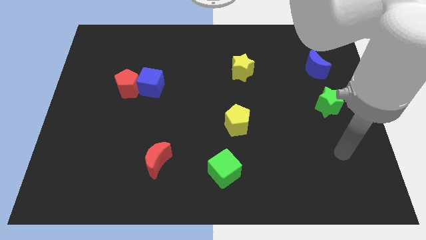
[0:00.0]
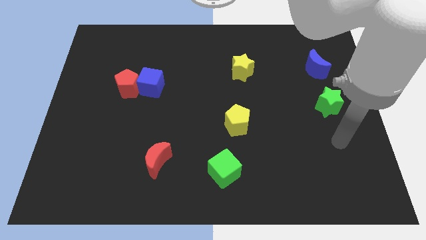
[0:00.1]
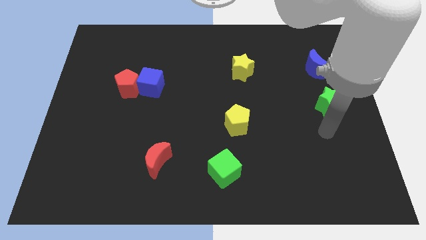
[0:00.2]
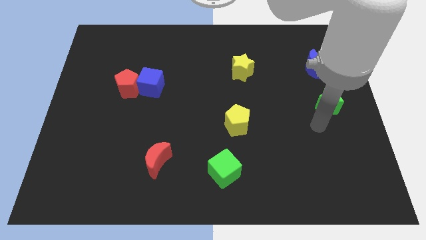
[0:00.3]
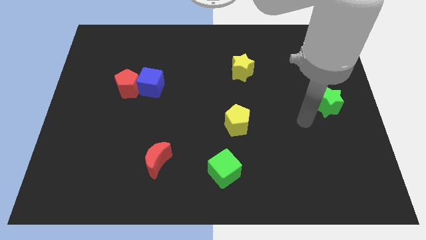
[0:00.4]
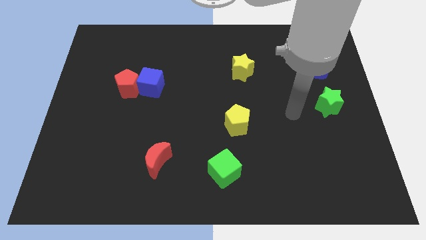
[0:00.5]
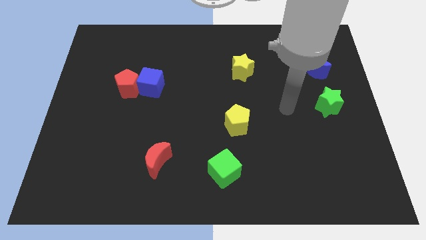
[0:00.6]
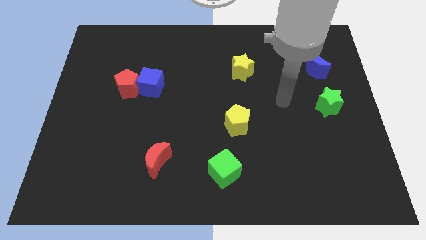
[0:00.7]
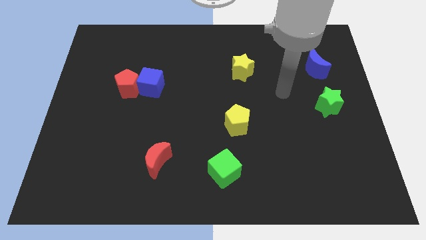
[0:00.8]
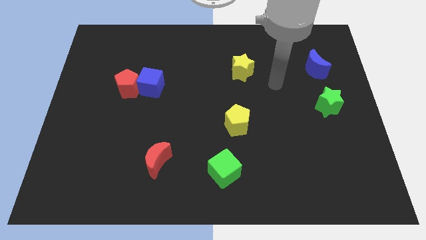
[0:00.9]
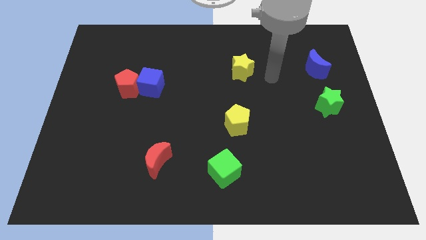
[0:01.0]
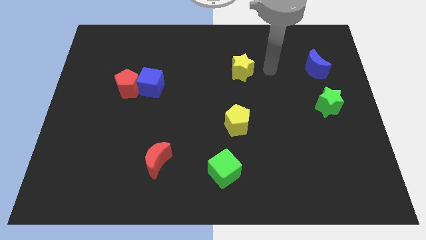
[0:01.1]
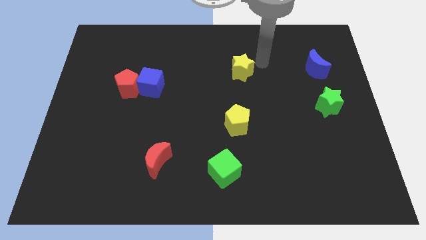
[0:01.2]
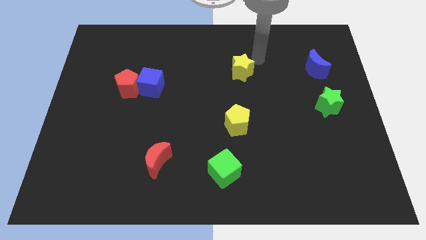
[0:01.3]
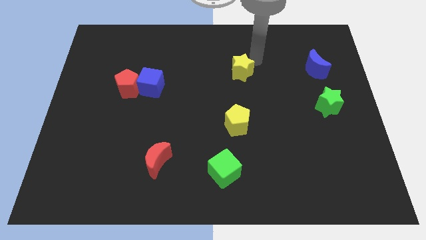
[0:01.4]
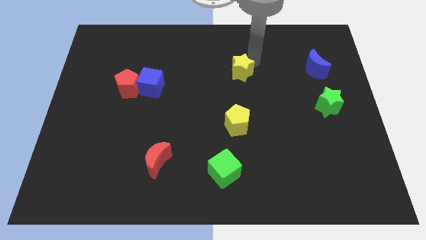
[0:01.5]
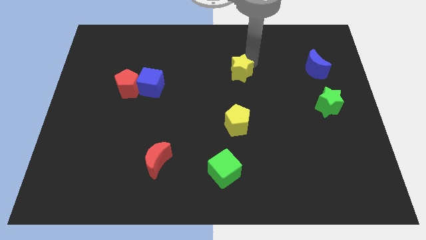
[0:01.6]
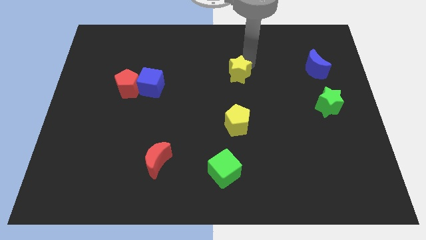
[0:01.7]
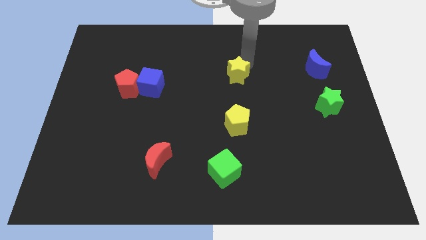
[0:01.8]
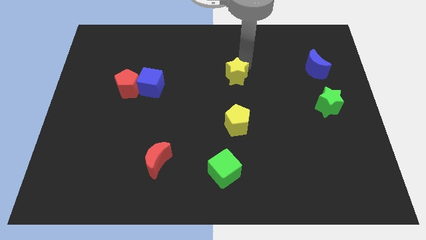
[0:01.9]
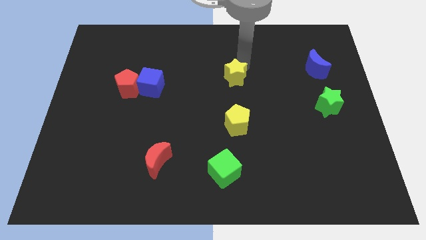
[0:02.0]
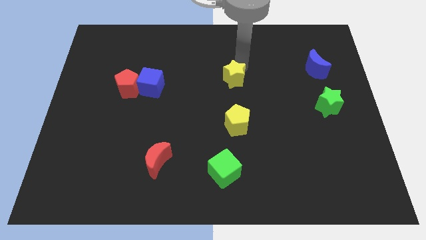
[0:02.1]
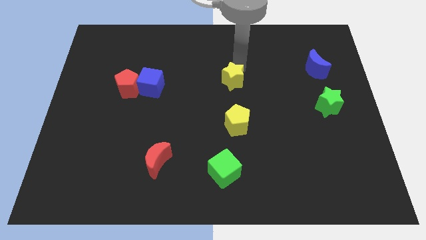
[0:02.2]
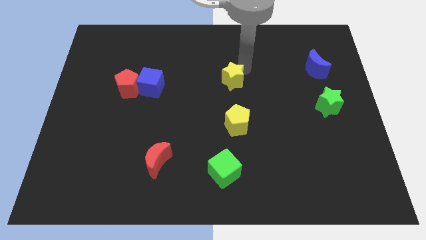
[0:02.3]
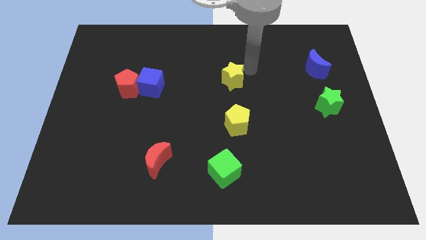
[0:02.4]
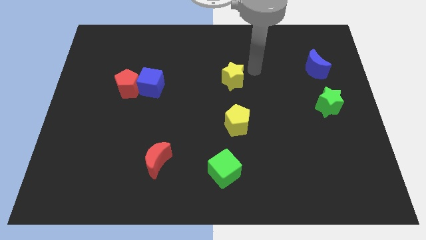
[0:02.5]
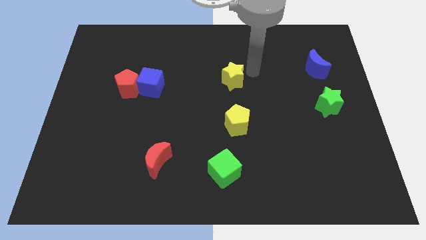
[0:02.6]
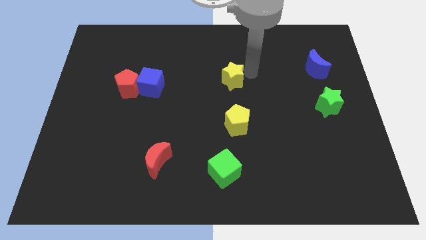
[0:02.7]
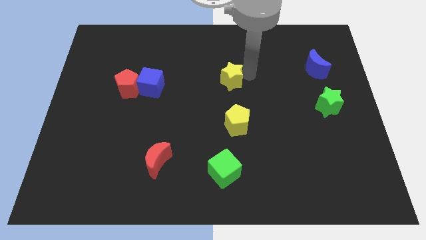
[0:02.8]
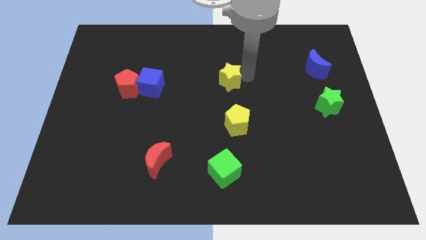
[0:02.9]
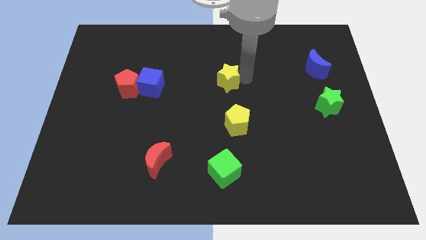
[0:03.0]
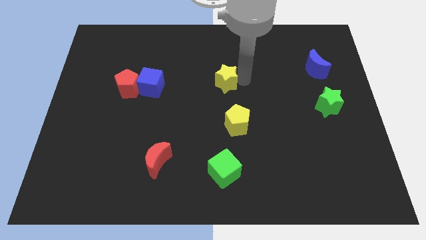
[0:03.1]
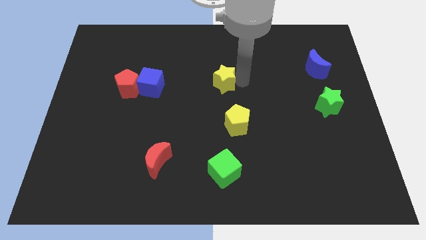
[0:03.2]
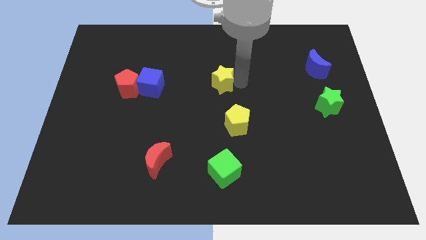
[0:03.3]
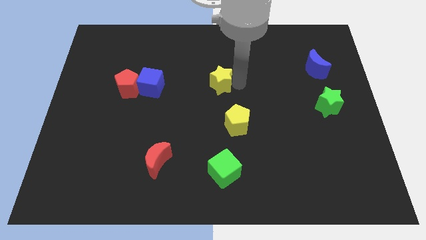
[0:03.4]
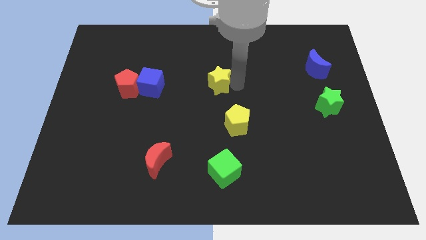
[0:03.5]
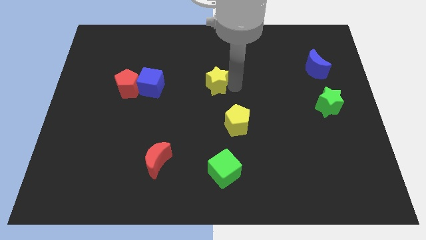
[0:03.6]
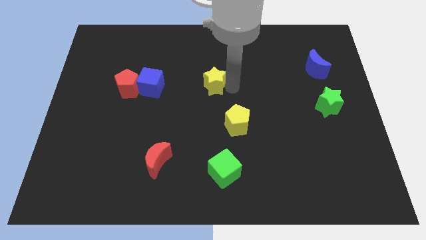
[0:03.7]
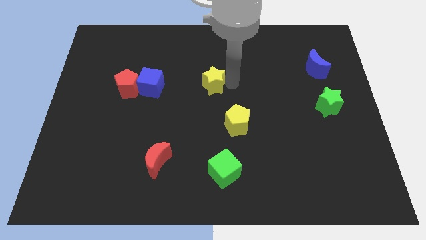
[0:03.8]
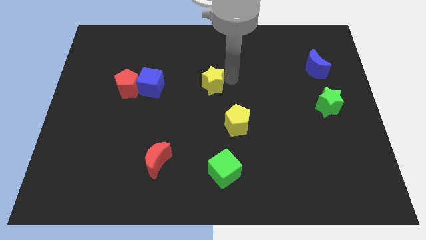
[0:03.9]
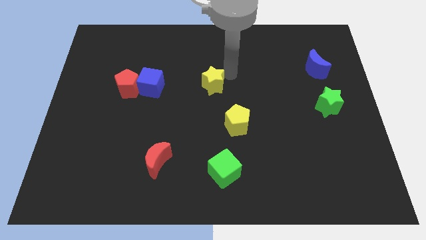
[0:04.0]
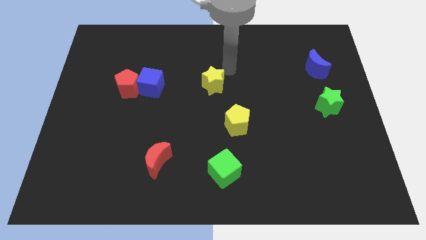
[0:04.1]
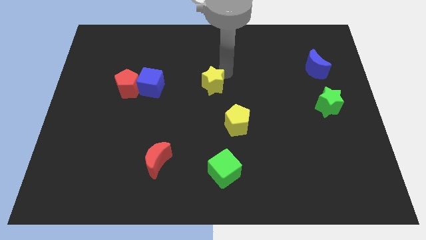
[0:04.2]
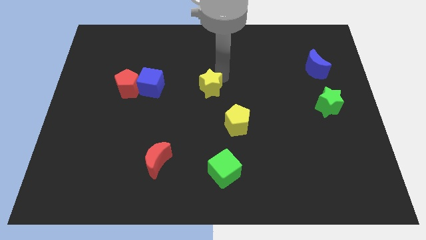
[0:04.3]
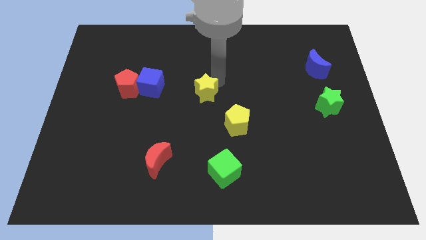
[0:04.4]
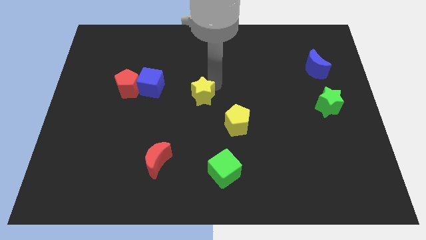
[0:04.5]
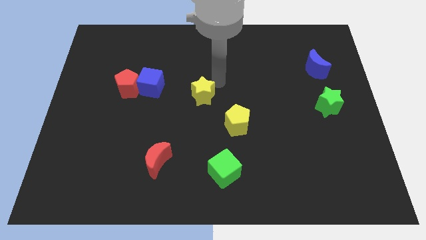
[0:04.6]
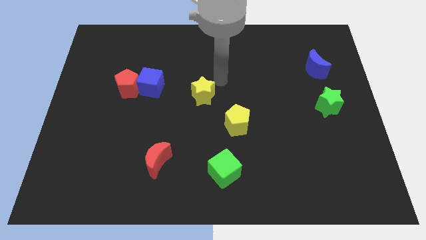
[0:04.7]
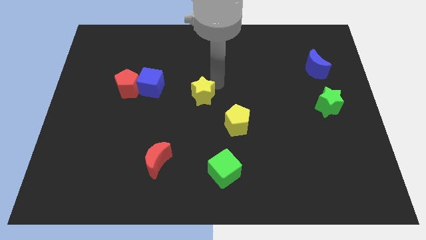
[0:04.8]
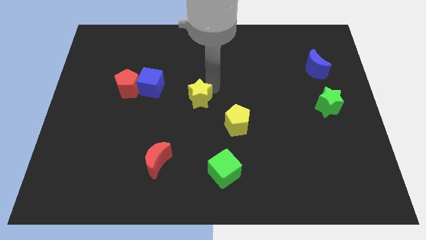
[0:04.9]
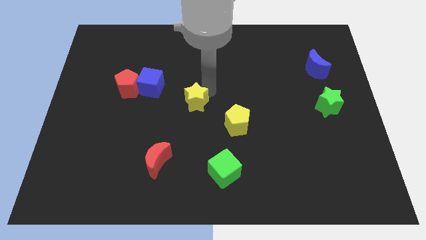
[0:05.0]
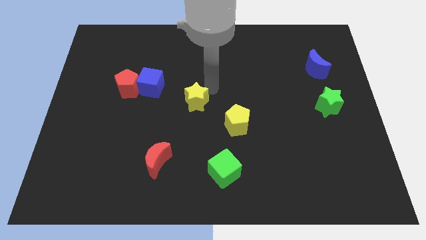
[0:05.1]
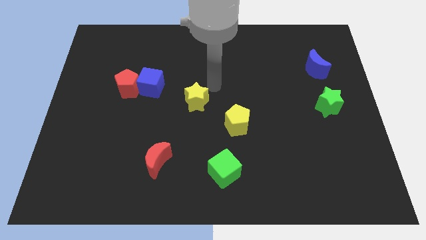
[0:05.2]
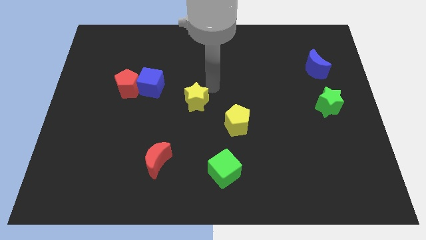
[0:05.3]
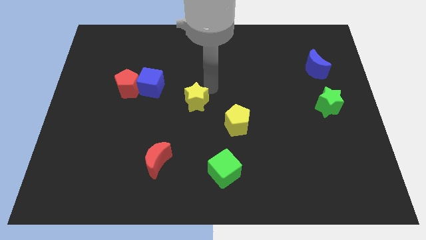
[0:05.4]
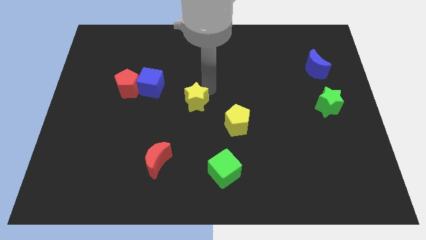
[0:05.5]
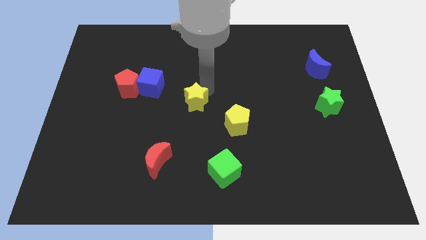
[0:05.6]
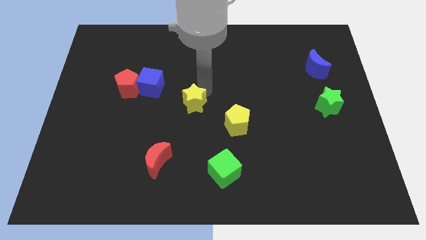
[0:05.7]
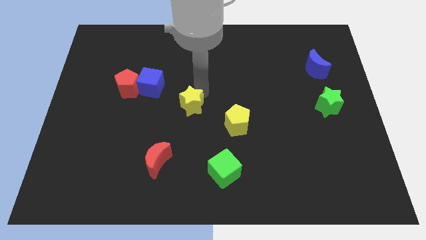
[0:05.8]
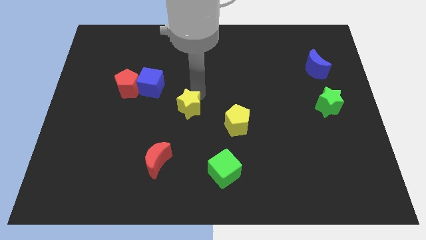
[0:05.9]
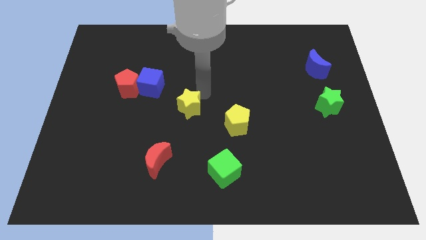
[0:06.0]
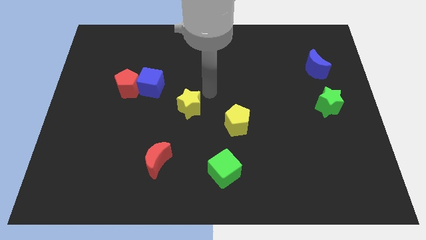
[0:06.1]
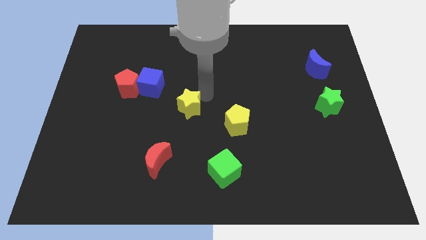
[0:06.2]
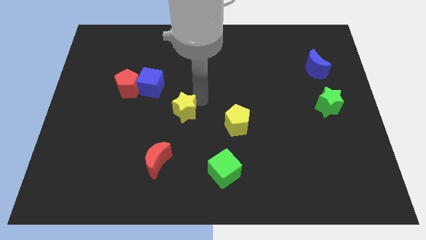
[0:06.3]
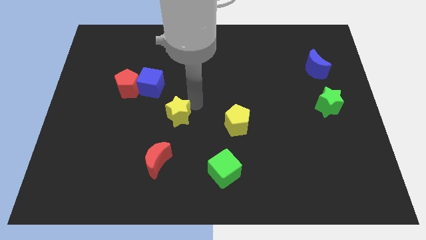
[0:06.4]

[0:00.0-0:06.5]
slide the yellow star down and left diagonally

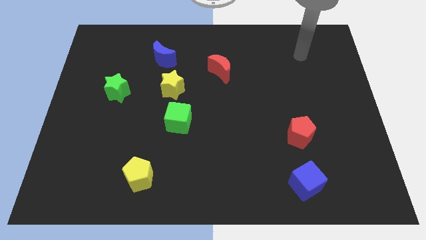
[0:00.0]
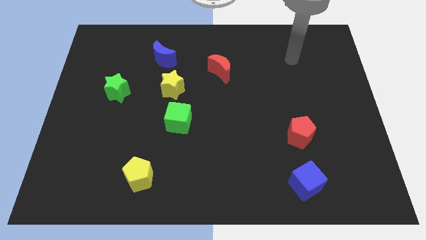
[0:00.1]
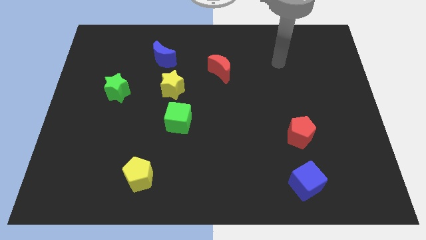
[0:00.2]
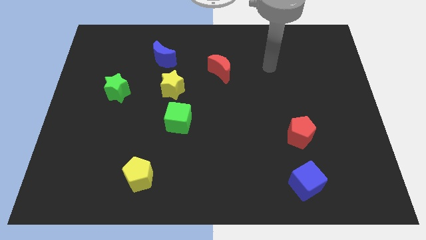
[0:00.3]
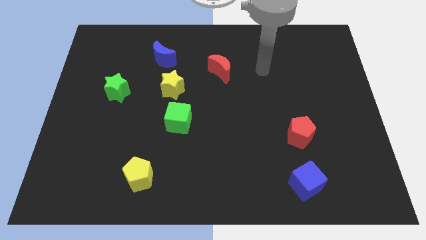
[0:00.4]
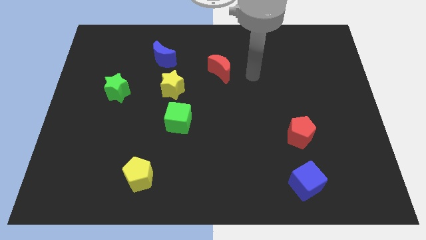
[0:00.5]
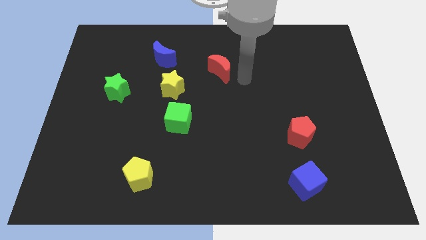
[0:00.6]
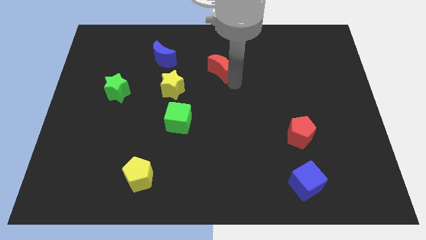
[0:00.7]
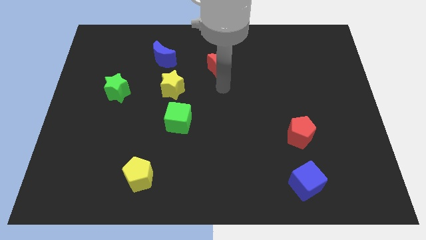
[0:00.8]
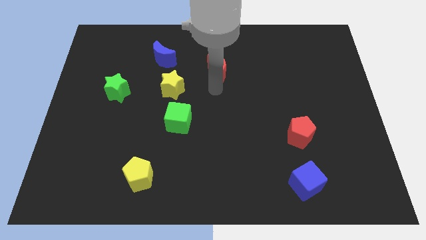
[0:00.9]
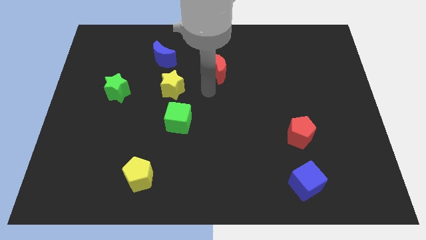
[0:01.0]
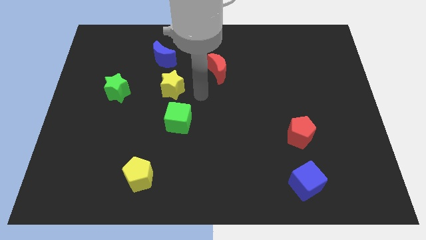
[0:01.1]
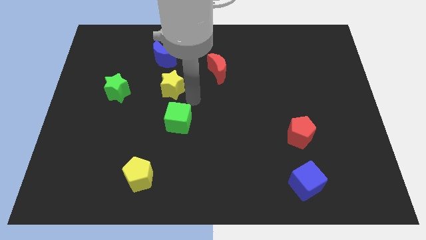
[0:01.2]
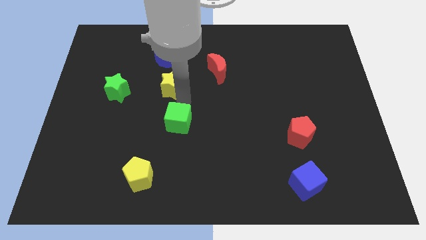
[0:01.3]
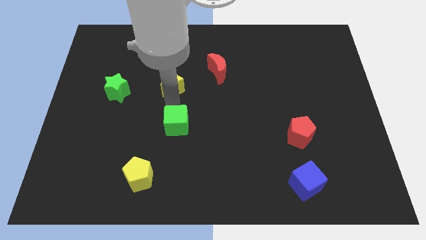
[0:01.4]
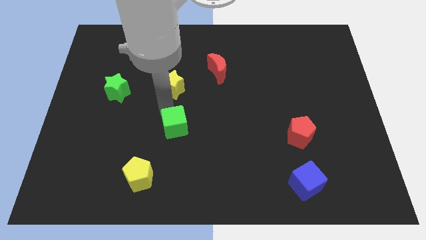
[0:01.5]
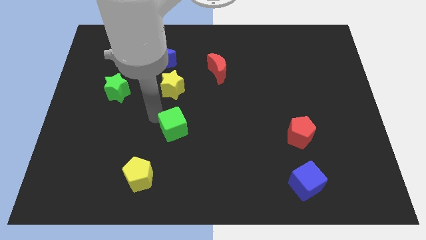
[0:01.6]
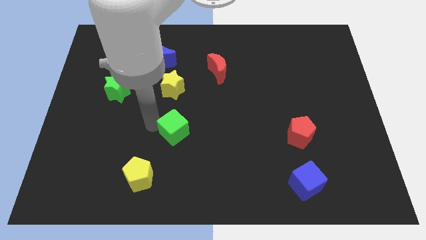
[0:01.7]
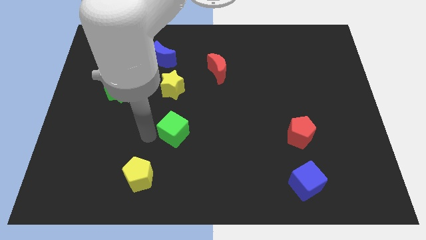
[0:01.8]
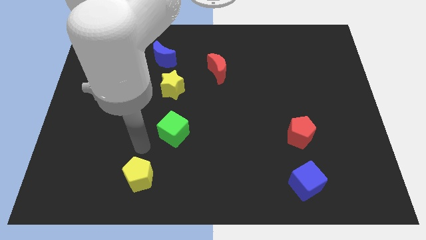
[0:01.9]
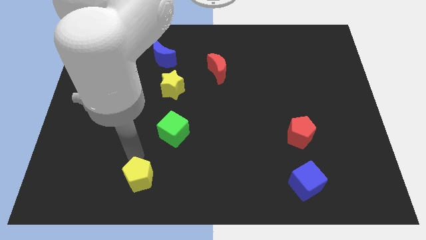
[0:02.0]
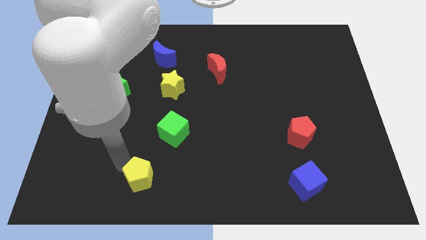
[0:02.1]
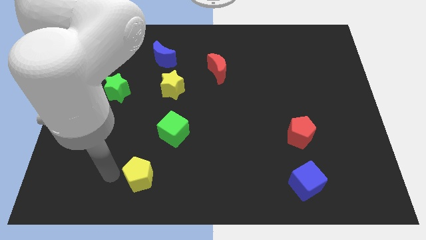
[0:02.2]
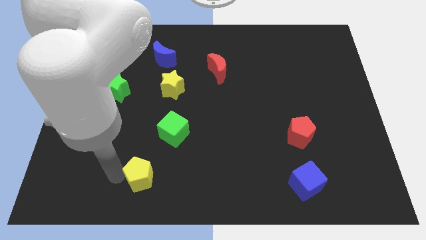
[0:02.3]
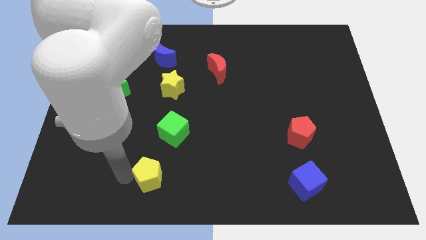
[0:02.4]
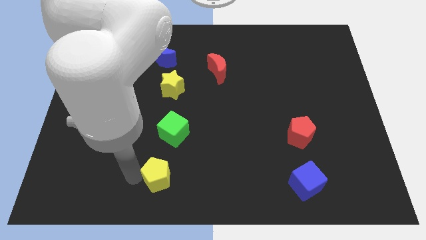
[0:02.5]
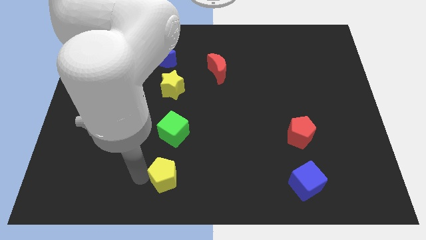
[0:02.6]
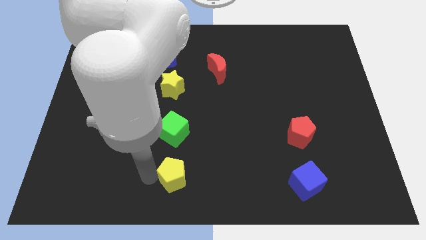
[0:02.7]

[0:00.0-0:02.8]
slightly move the yellow pentagon right
